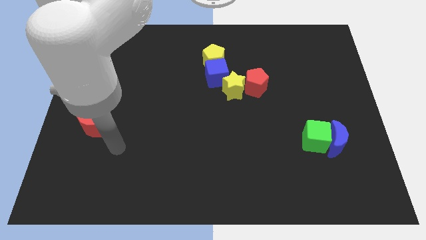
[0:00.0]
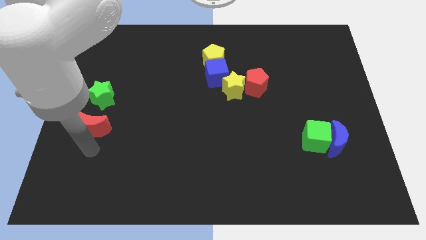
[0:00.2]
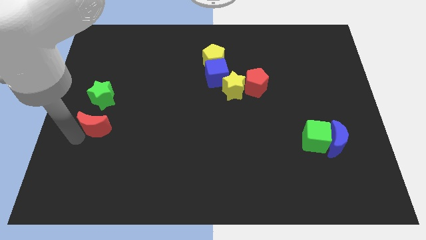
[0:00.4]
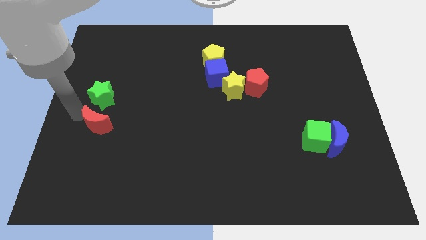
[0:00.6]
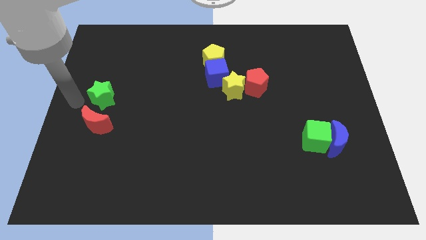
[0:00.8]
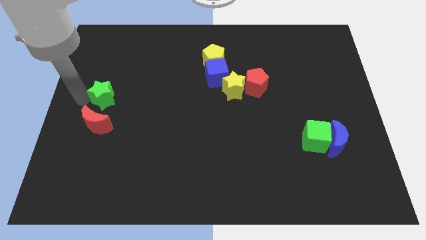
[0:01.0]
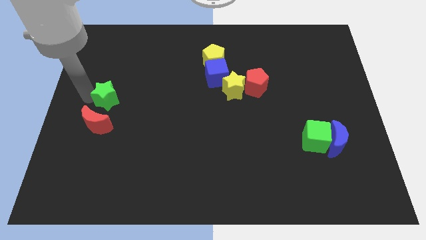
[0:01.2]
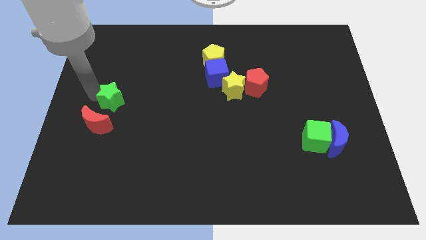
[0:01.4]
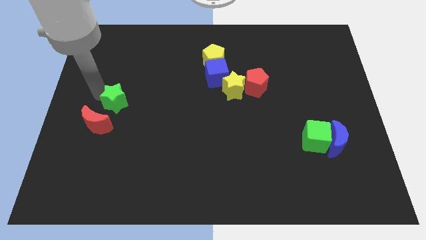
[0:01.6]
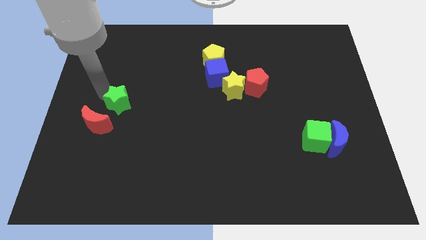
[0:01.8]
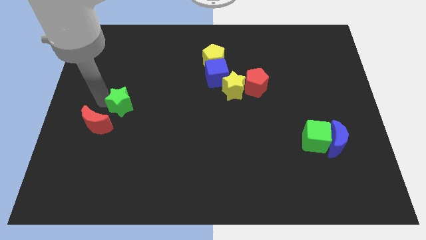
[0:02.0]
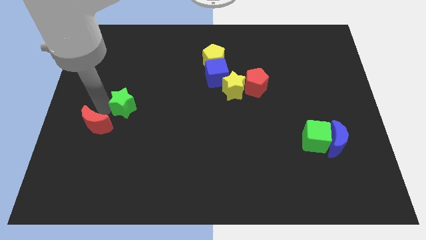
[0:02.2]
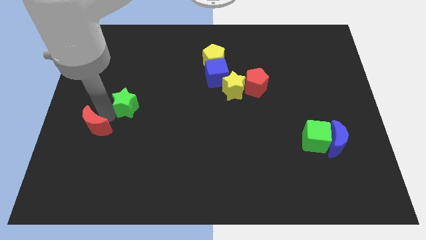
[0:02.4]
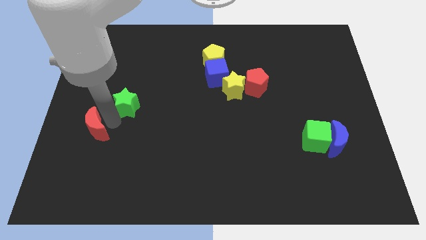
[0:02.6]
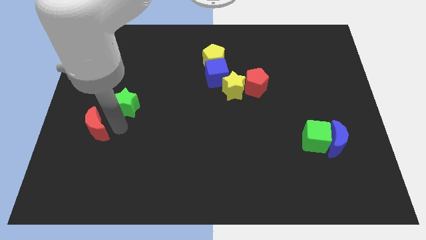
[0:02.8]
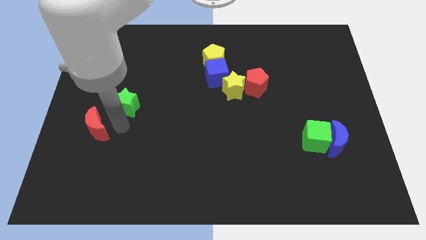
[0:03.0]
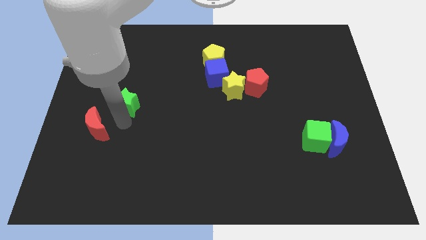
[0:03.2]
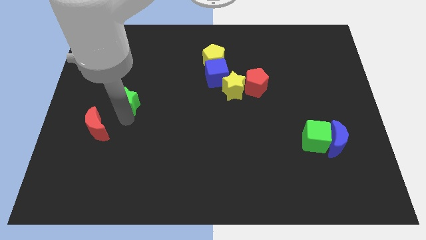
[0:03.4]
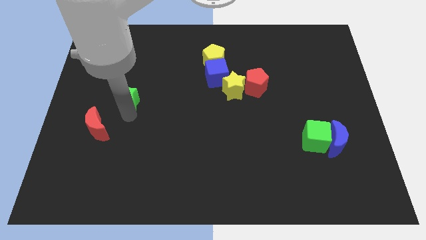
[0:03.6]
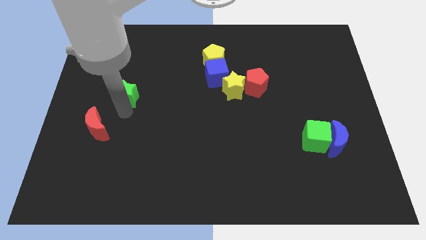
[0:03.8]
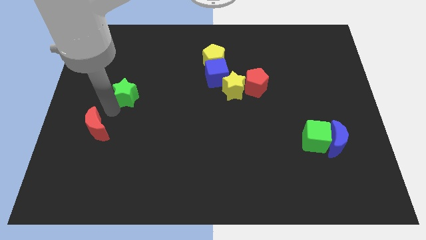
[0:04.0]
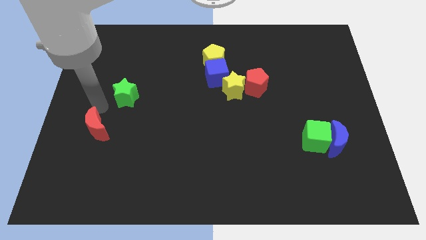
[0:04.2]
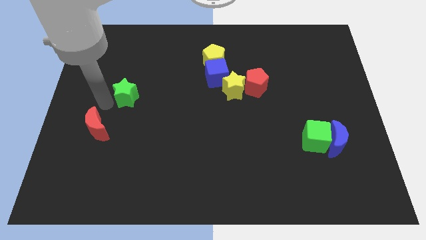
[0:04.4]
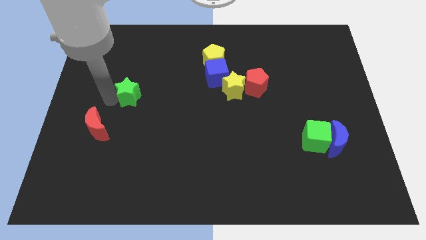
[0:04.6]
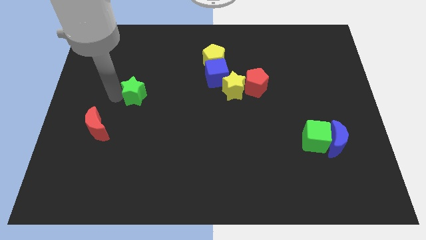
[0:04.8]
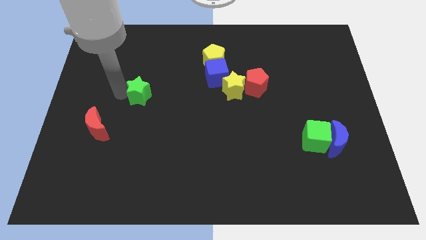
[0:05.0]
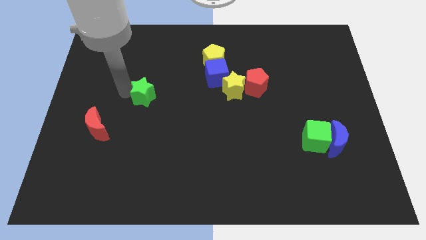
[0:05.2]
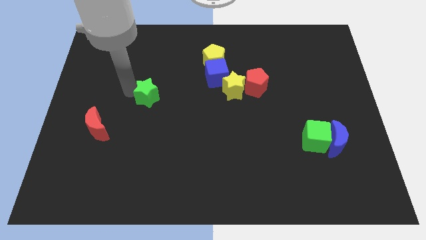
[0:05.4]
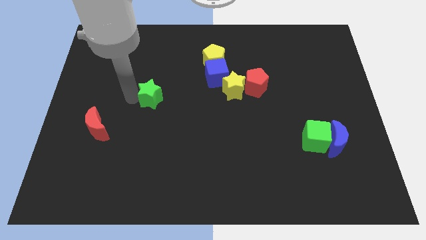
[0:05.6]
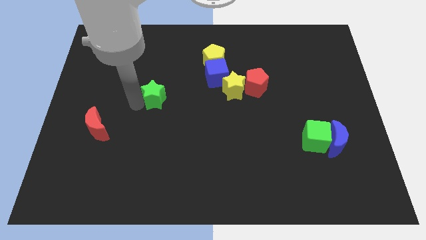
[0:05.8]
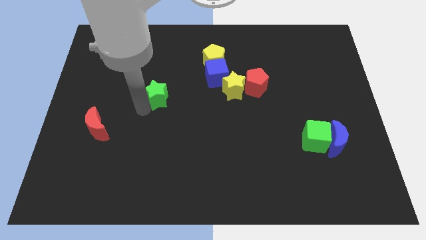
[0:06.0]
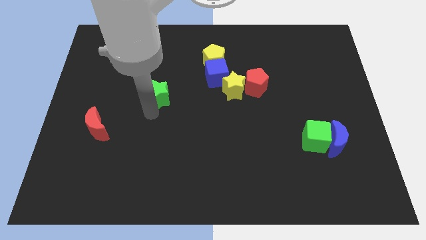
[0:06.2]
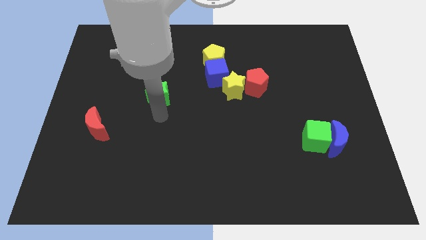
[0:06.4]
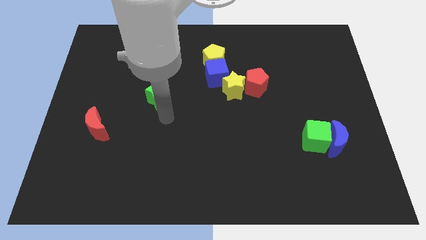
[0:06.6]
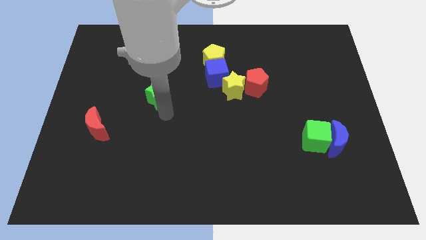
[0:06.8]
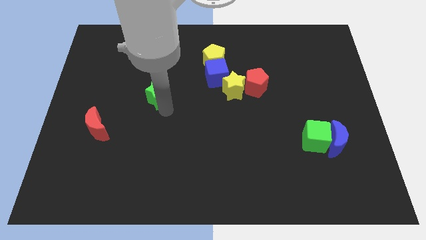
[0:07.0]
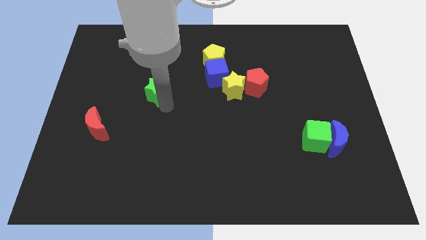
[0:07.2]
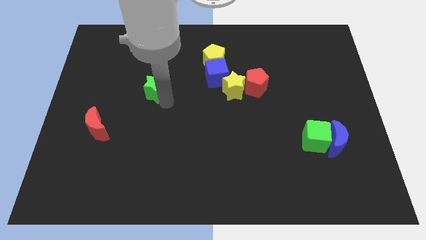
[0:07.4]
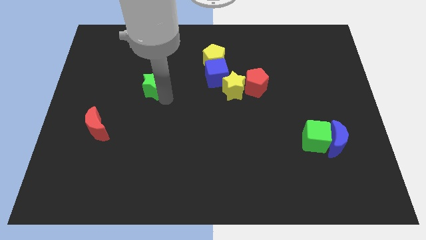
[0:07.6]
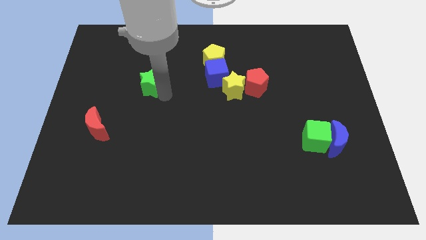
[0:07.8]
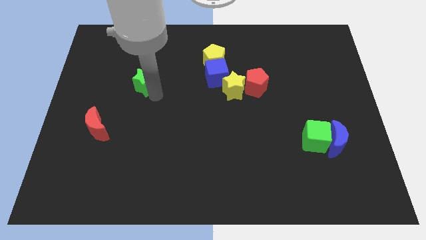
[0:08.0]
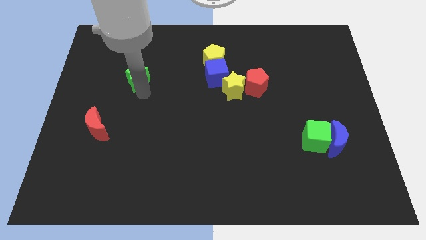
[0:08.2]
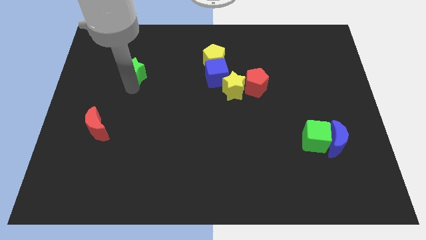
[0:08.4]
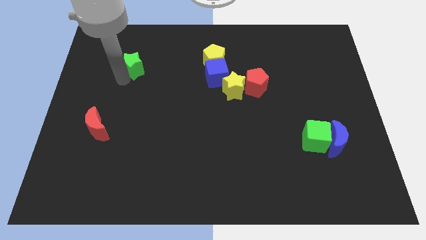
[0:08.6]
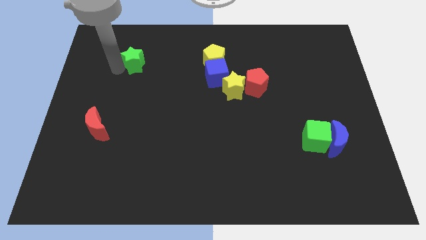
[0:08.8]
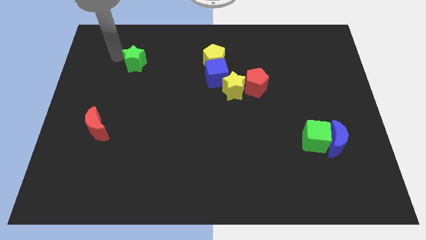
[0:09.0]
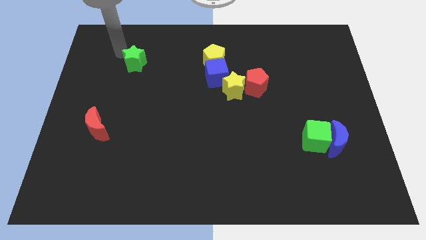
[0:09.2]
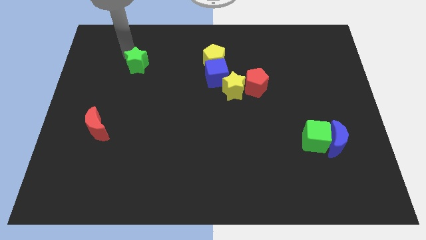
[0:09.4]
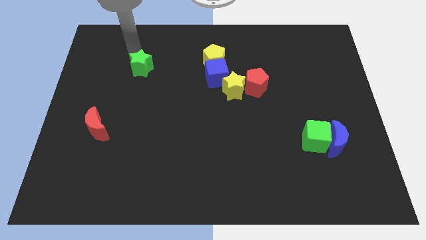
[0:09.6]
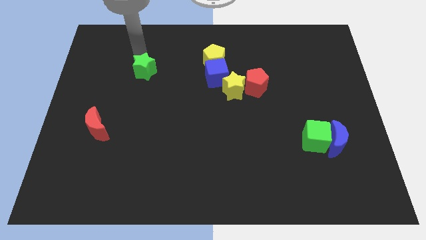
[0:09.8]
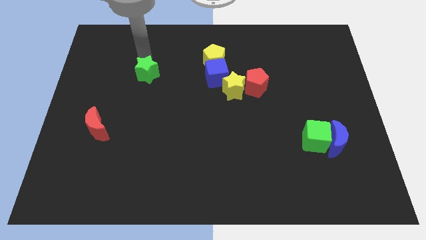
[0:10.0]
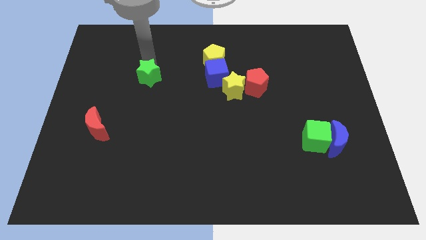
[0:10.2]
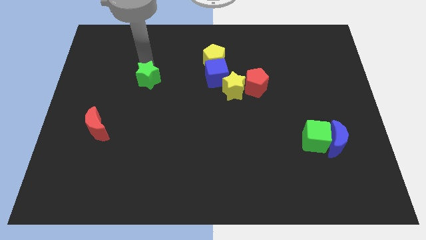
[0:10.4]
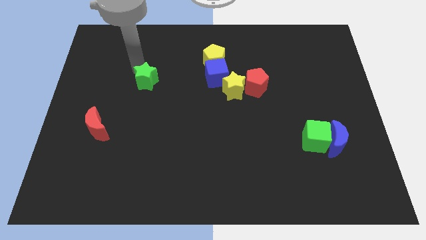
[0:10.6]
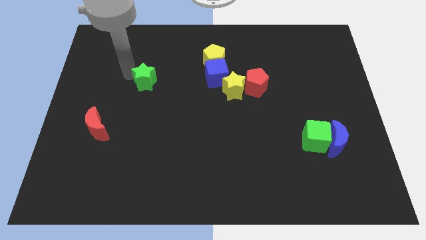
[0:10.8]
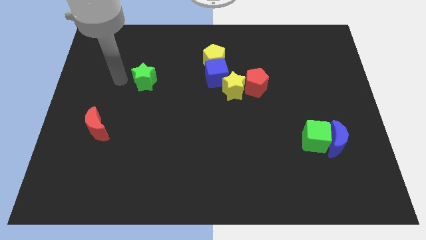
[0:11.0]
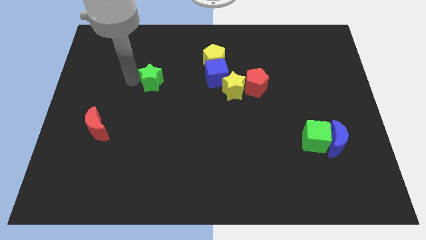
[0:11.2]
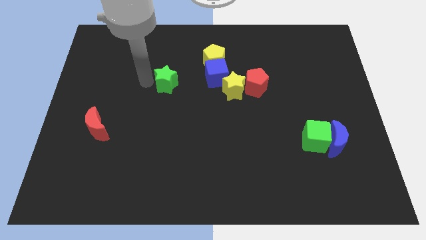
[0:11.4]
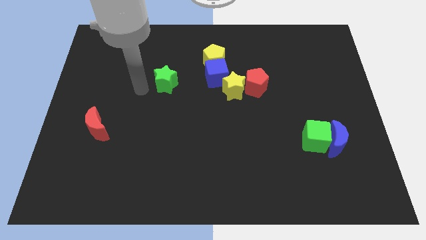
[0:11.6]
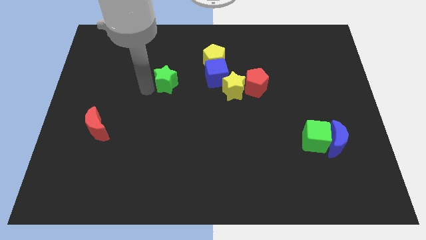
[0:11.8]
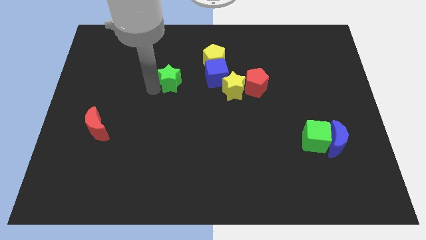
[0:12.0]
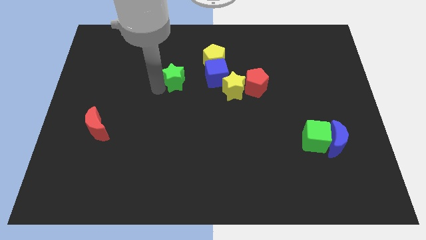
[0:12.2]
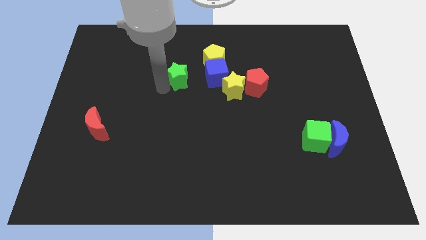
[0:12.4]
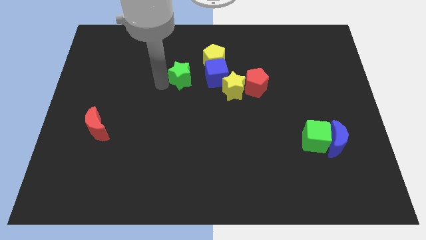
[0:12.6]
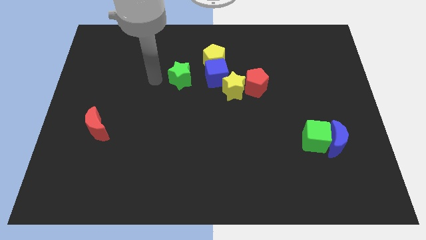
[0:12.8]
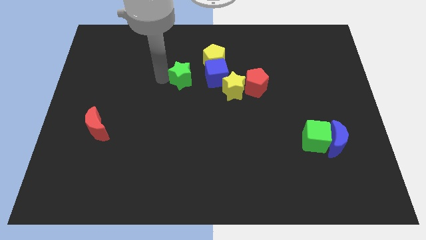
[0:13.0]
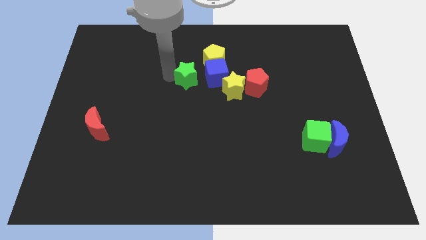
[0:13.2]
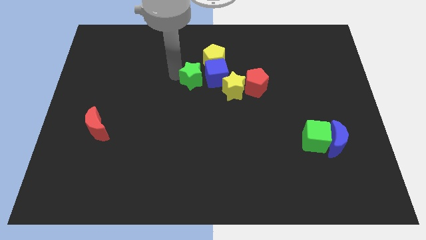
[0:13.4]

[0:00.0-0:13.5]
slide the green star close to the blue cube
